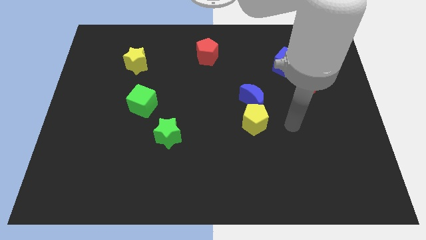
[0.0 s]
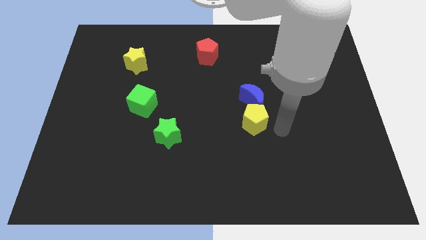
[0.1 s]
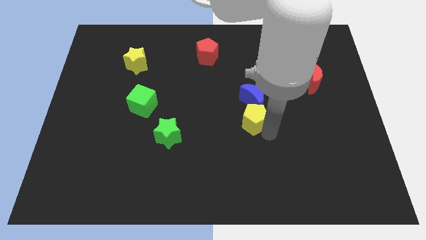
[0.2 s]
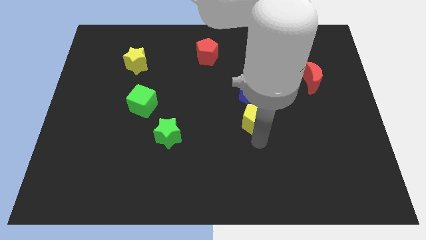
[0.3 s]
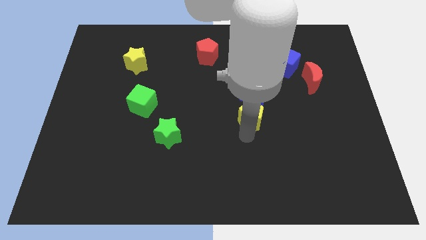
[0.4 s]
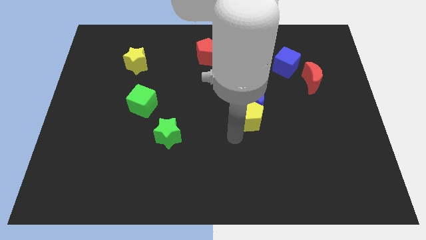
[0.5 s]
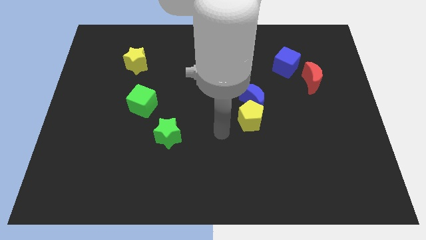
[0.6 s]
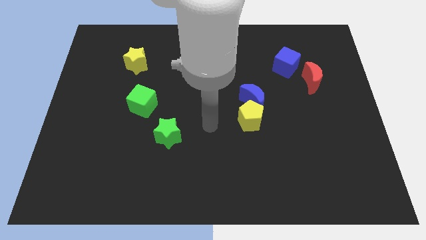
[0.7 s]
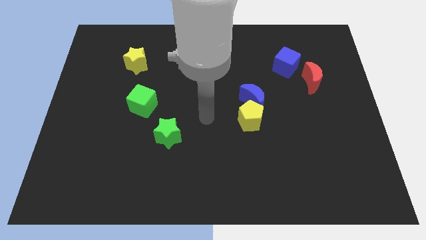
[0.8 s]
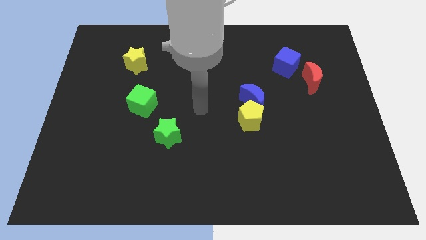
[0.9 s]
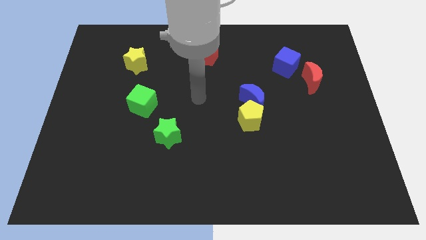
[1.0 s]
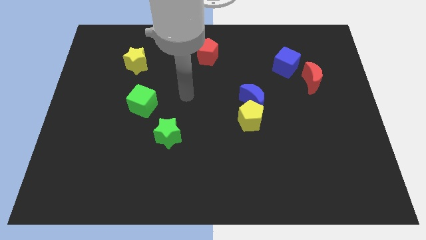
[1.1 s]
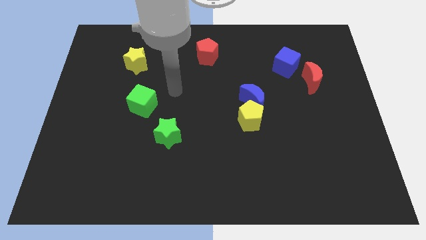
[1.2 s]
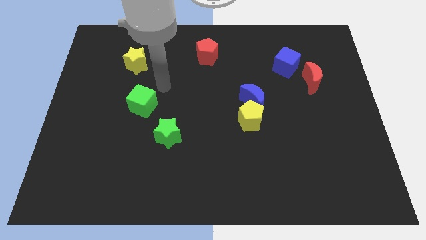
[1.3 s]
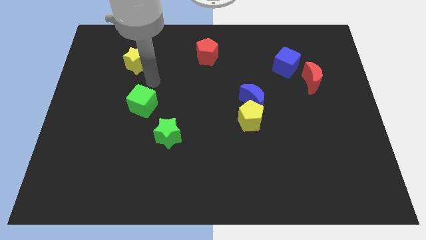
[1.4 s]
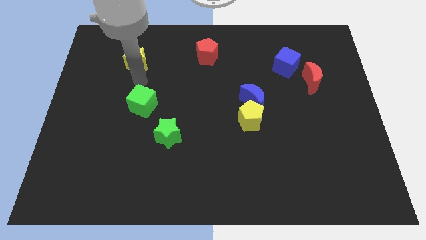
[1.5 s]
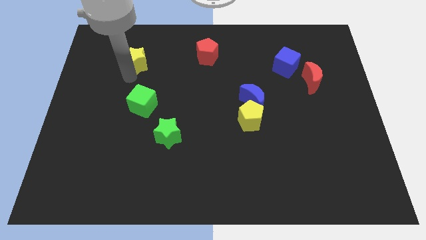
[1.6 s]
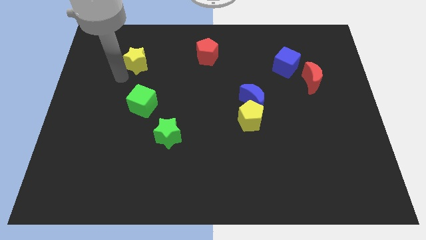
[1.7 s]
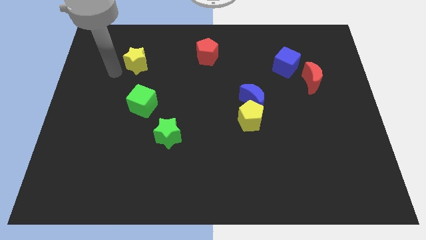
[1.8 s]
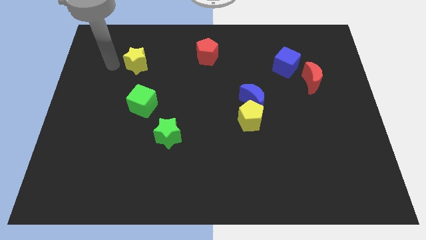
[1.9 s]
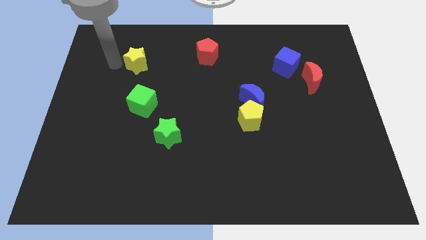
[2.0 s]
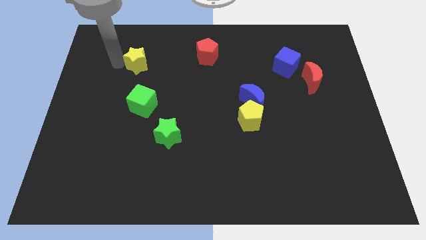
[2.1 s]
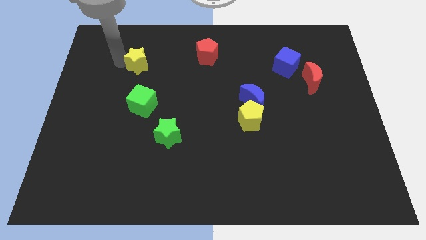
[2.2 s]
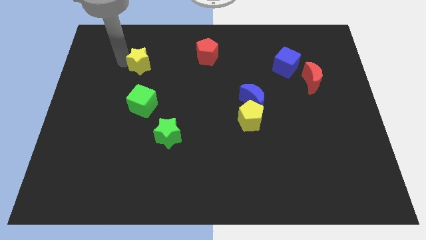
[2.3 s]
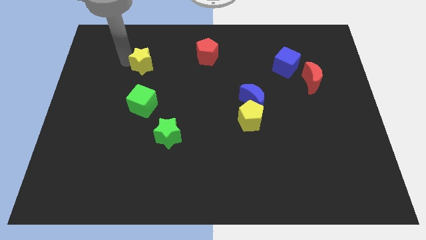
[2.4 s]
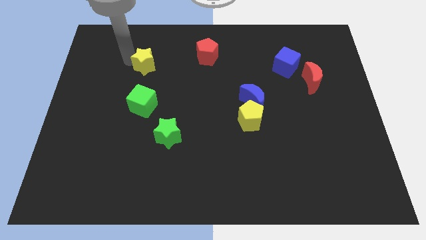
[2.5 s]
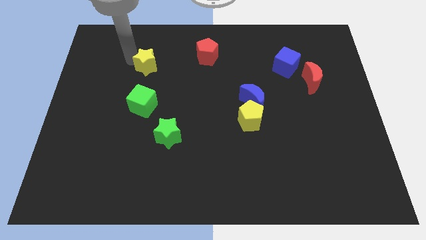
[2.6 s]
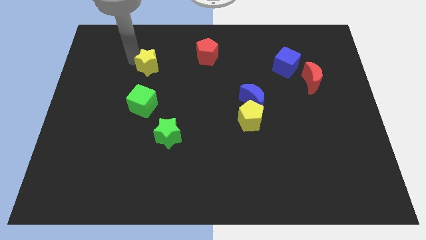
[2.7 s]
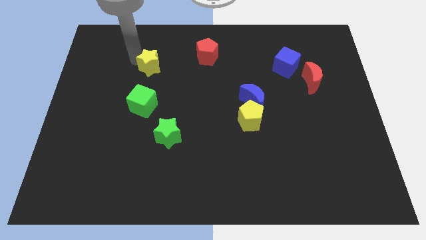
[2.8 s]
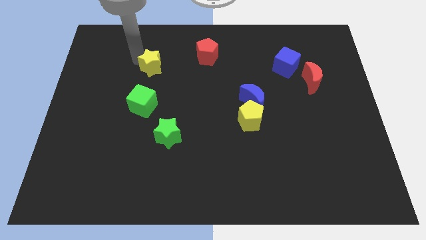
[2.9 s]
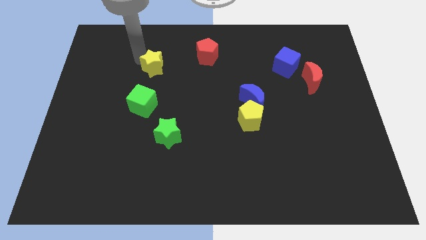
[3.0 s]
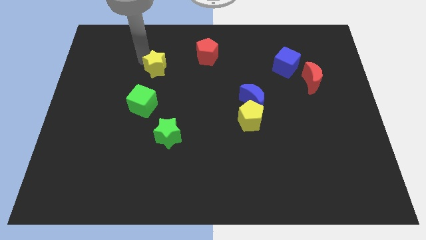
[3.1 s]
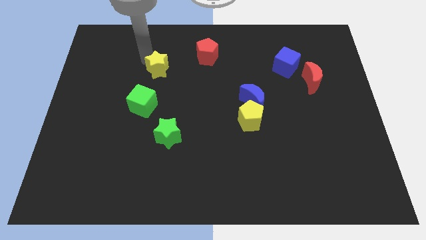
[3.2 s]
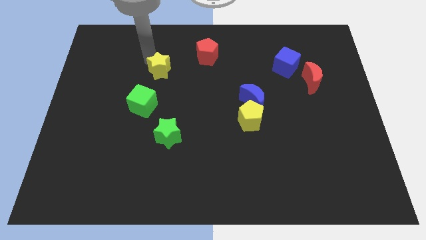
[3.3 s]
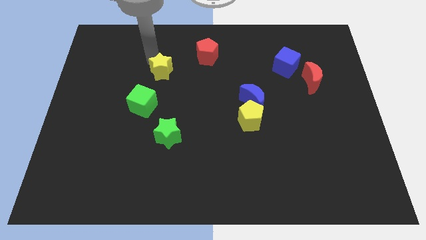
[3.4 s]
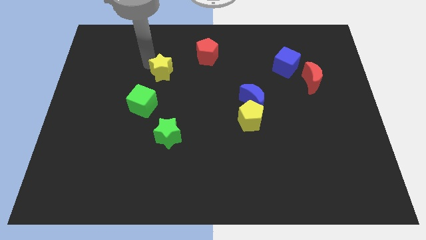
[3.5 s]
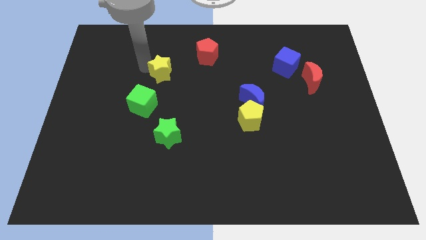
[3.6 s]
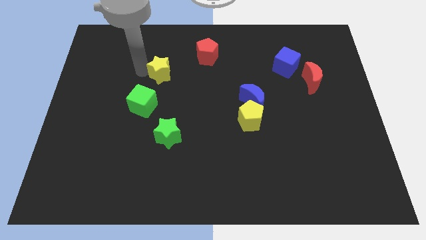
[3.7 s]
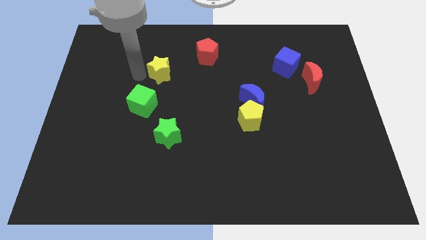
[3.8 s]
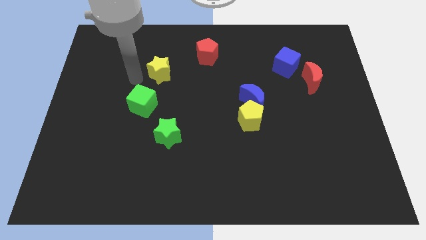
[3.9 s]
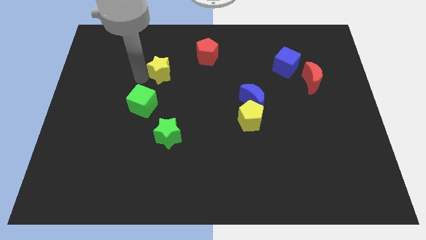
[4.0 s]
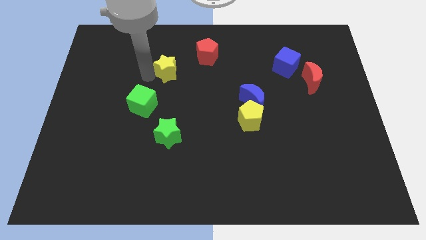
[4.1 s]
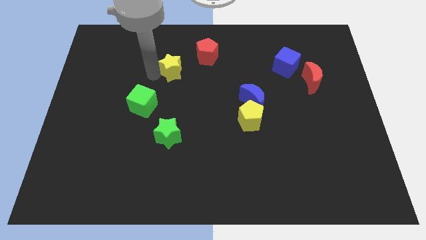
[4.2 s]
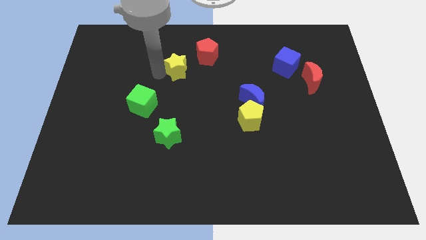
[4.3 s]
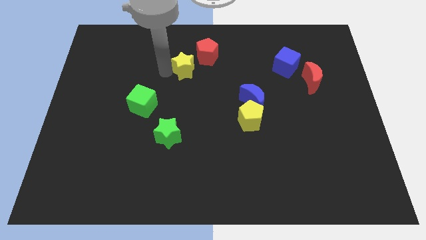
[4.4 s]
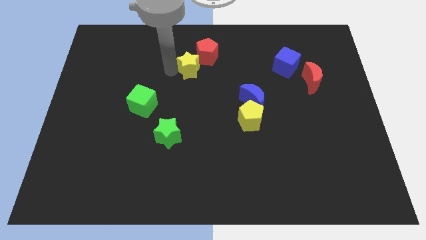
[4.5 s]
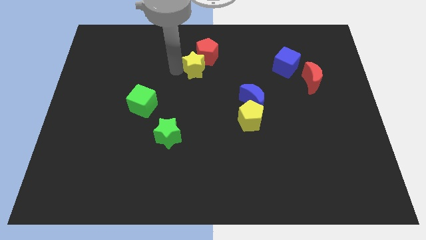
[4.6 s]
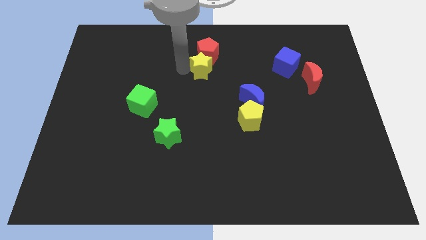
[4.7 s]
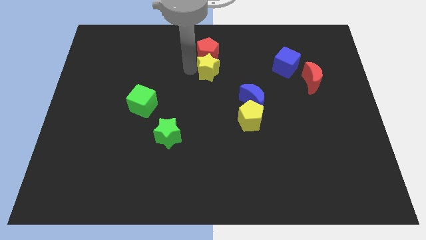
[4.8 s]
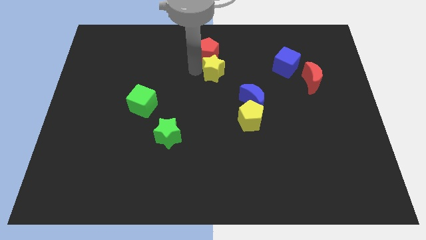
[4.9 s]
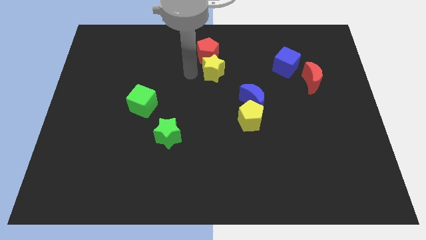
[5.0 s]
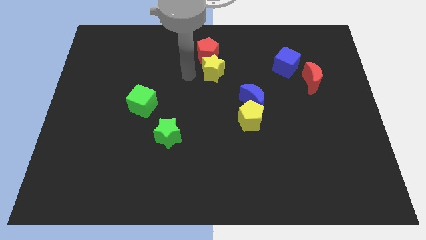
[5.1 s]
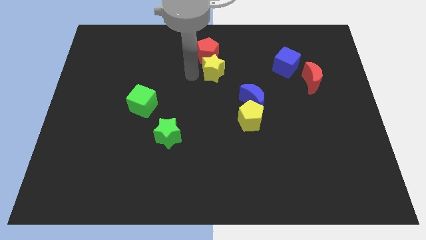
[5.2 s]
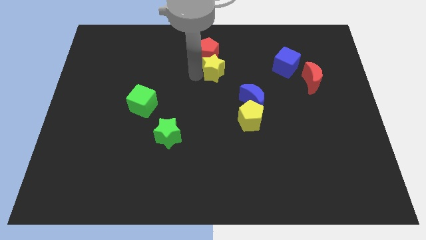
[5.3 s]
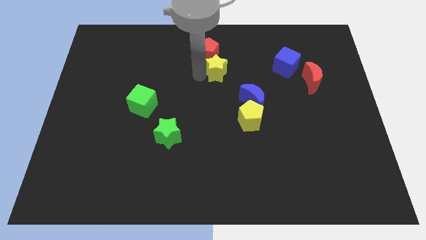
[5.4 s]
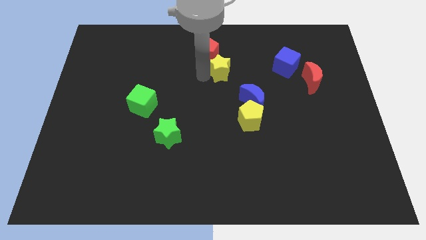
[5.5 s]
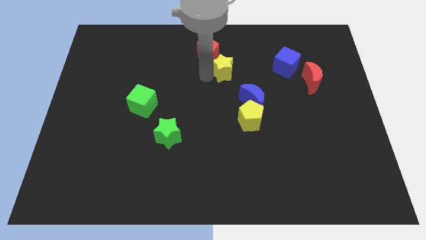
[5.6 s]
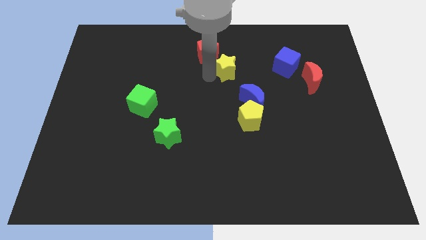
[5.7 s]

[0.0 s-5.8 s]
slide the yellow star left of the blue cube

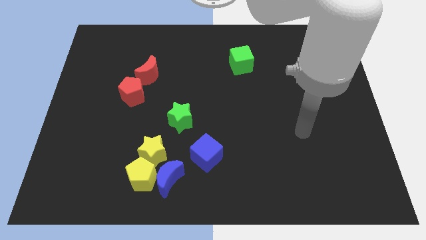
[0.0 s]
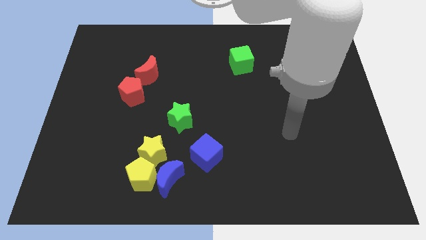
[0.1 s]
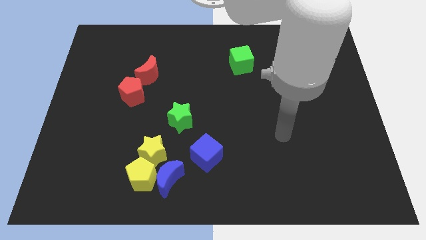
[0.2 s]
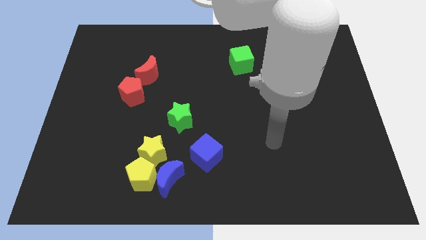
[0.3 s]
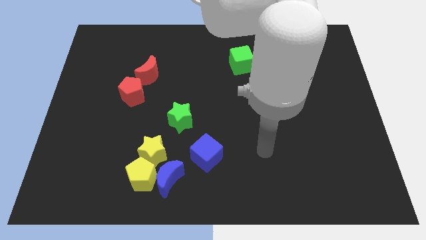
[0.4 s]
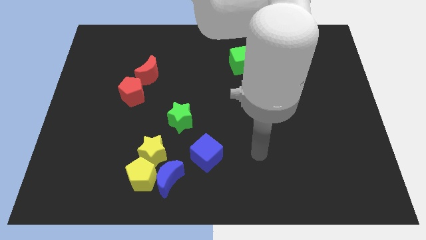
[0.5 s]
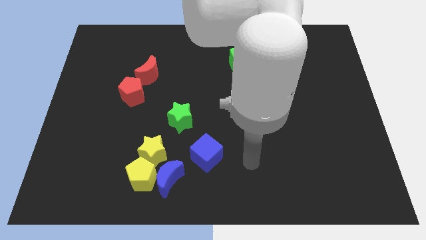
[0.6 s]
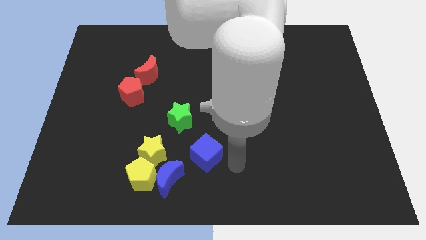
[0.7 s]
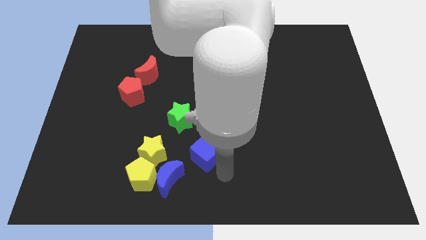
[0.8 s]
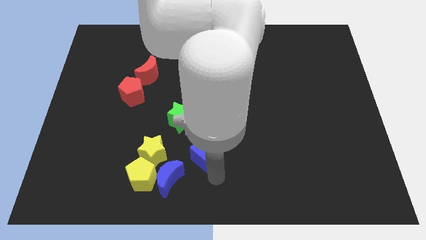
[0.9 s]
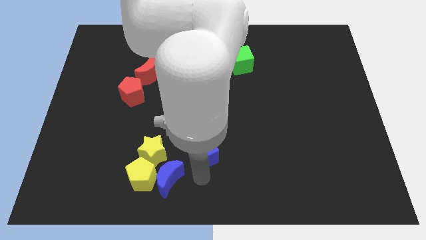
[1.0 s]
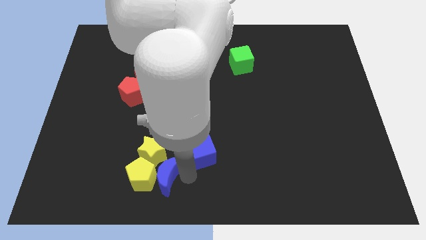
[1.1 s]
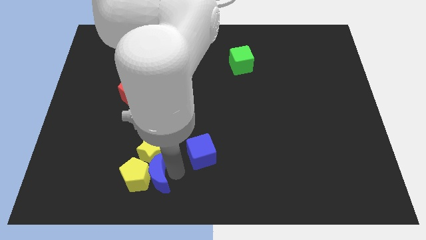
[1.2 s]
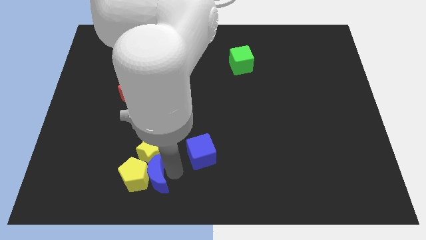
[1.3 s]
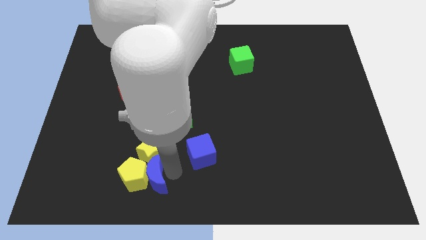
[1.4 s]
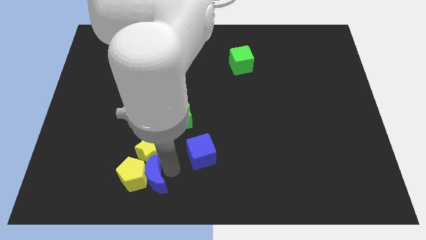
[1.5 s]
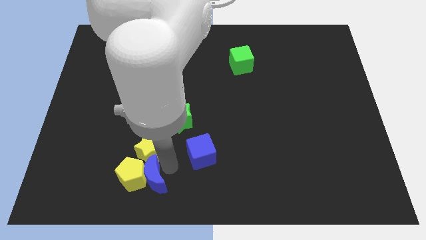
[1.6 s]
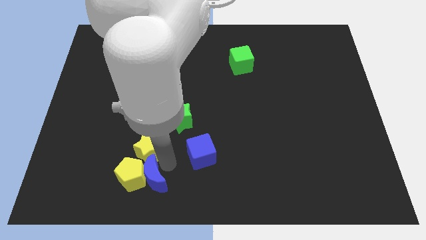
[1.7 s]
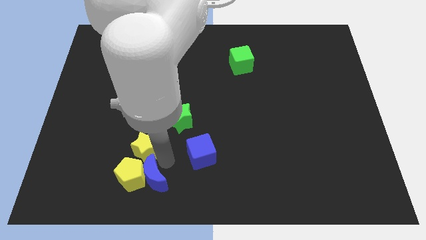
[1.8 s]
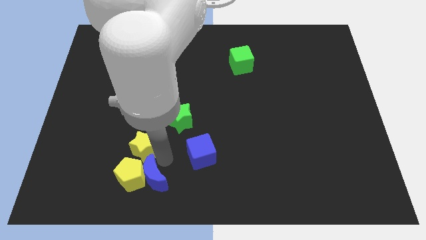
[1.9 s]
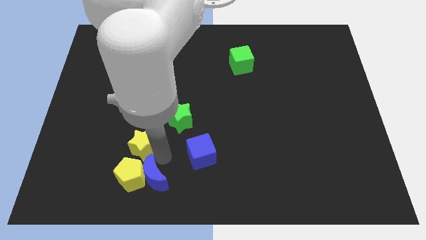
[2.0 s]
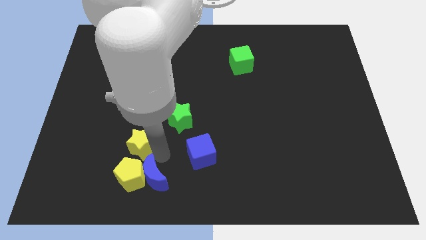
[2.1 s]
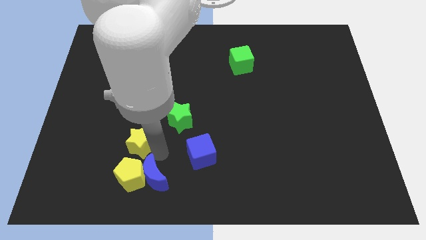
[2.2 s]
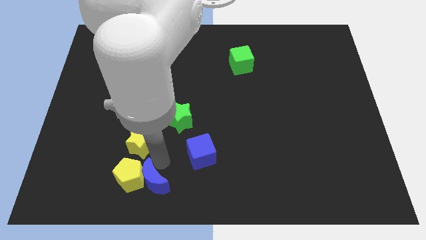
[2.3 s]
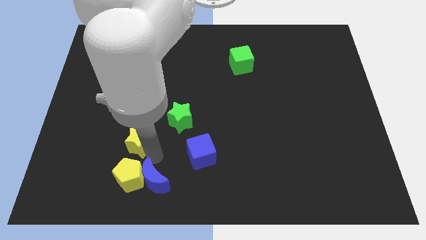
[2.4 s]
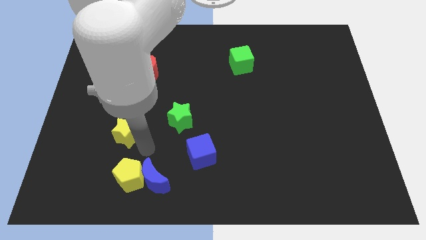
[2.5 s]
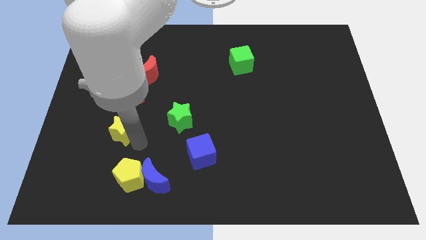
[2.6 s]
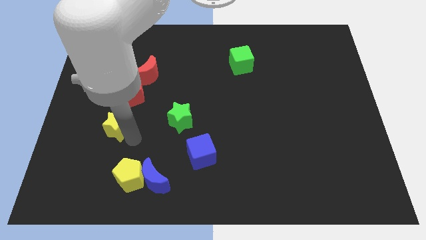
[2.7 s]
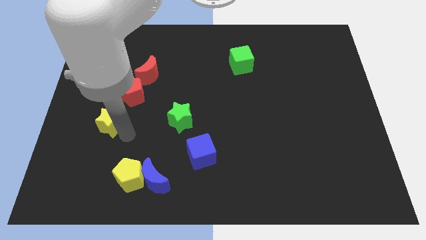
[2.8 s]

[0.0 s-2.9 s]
move the yellow star to the bottom left of the red pentagon
